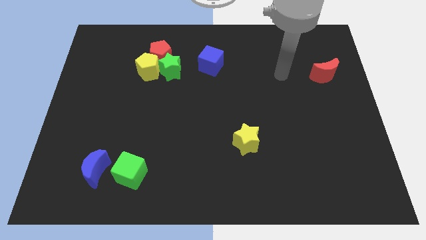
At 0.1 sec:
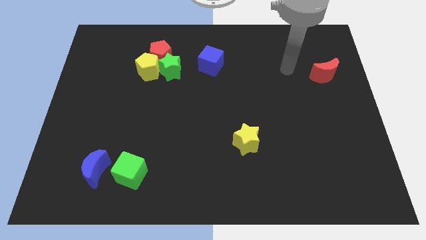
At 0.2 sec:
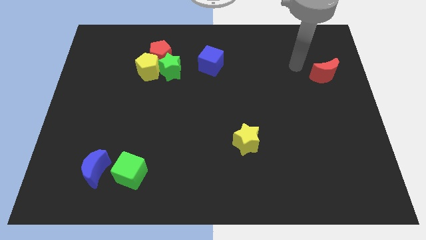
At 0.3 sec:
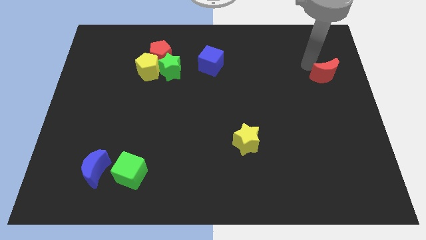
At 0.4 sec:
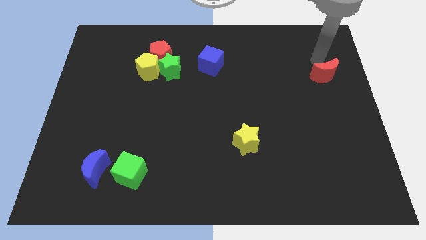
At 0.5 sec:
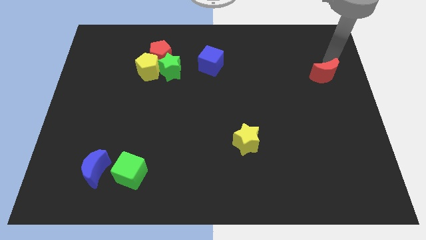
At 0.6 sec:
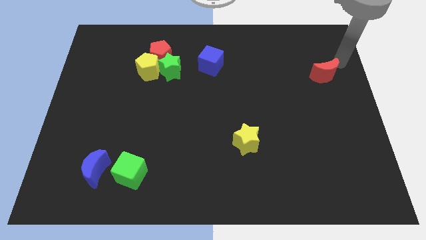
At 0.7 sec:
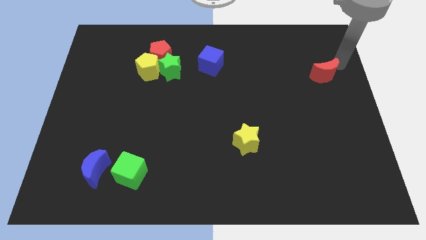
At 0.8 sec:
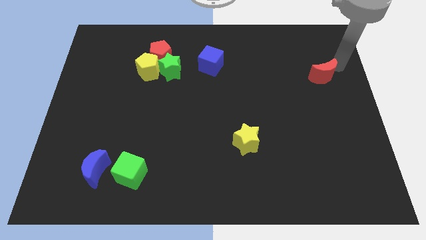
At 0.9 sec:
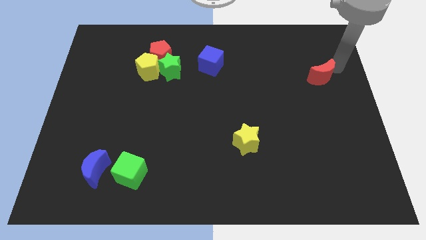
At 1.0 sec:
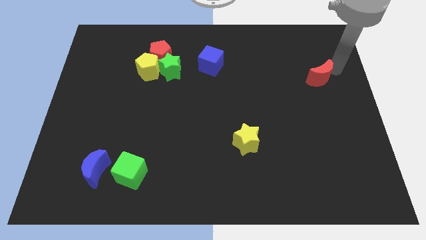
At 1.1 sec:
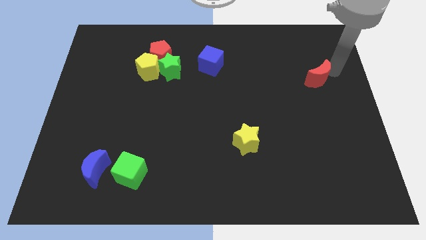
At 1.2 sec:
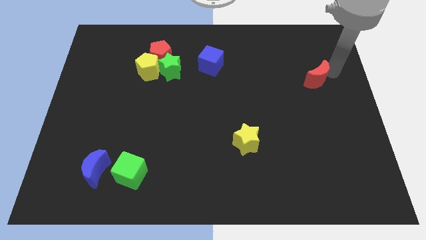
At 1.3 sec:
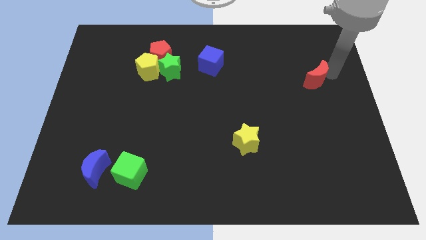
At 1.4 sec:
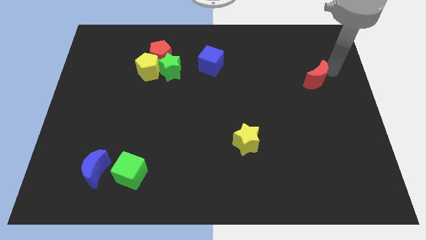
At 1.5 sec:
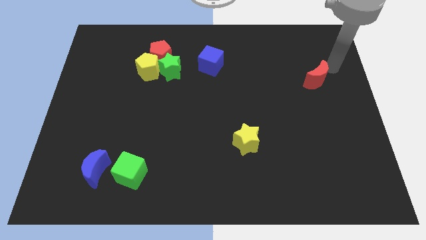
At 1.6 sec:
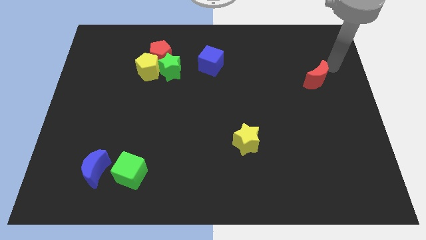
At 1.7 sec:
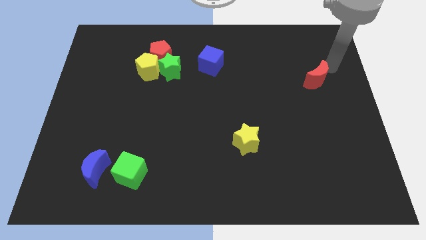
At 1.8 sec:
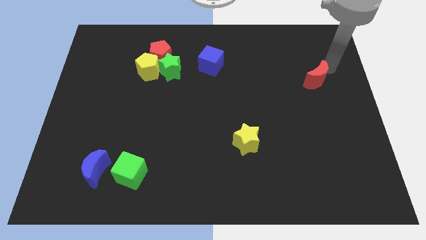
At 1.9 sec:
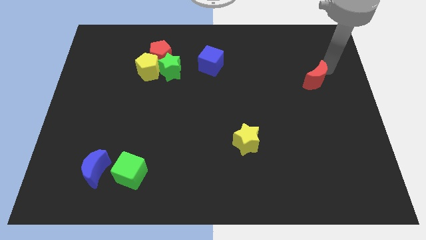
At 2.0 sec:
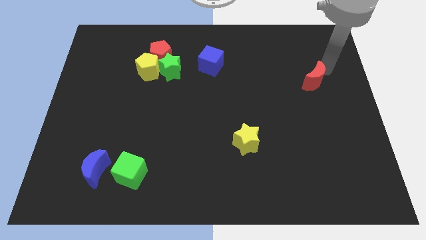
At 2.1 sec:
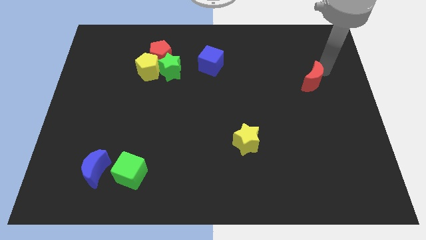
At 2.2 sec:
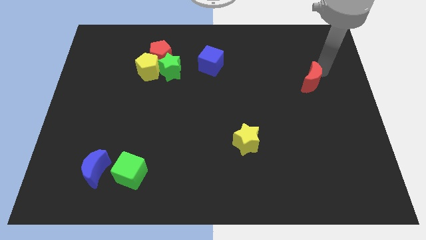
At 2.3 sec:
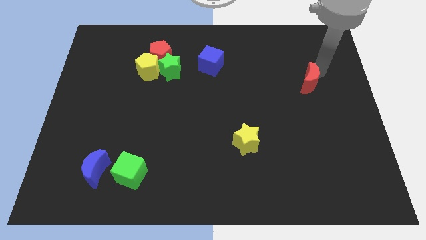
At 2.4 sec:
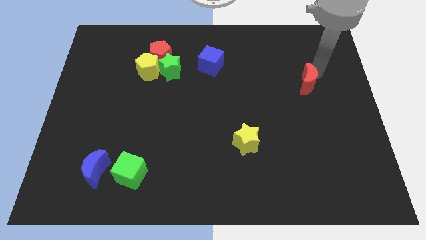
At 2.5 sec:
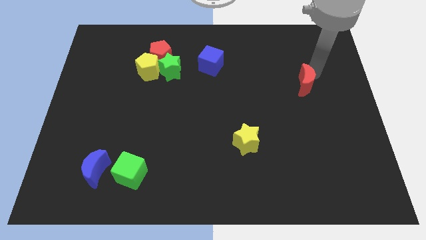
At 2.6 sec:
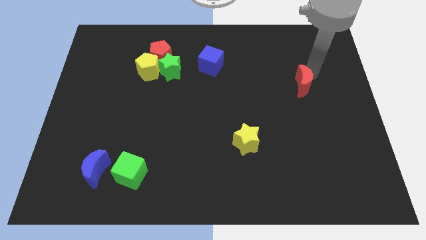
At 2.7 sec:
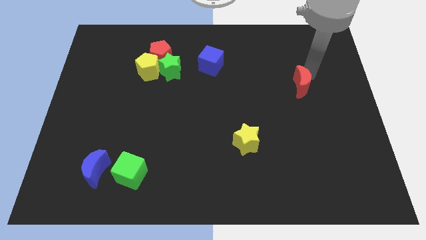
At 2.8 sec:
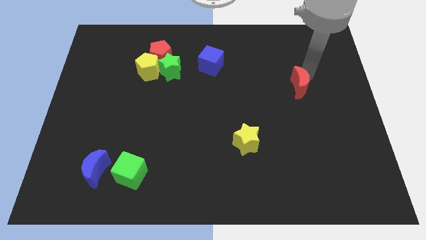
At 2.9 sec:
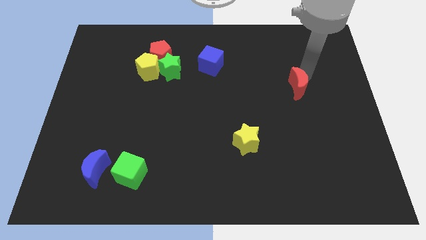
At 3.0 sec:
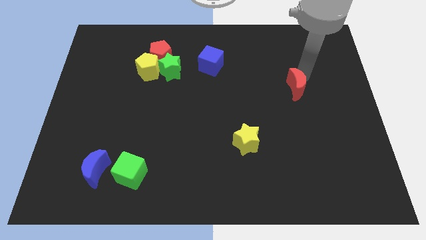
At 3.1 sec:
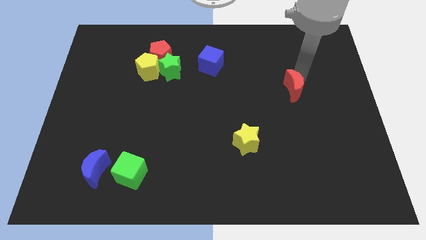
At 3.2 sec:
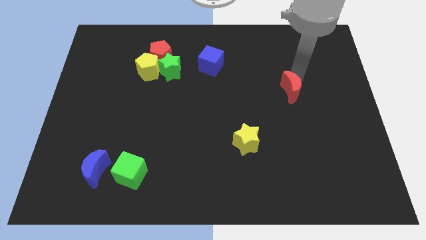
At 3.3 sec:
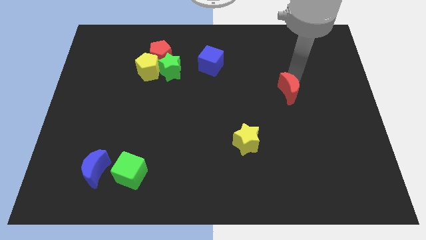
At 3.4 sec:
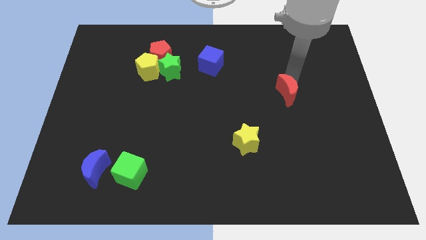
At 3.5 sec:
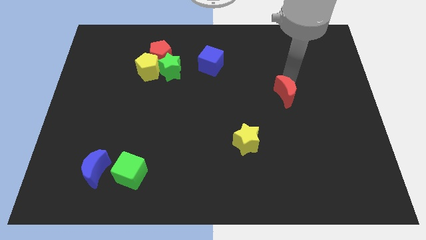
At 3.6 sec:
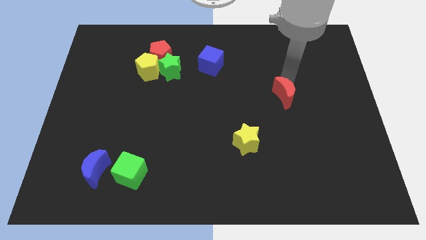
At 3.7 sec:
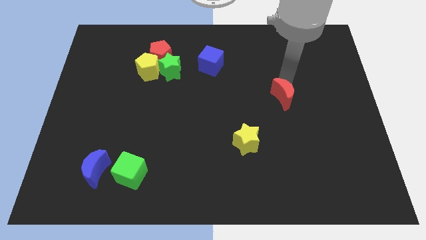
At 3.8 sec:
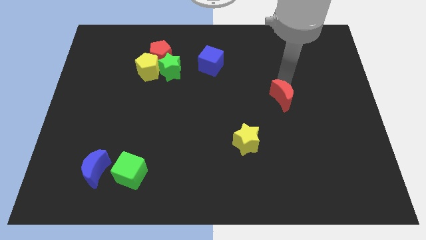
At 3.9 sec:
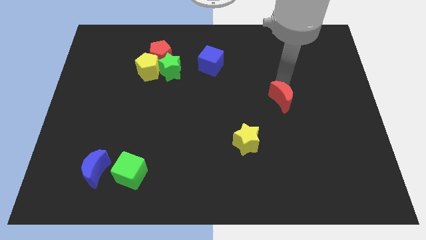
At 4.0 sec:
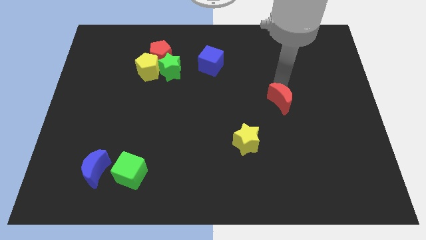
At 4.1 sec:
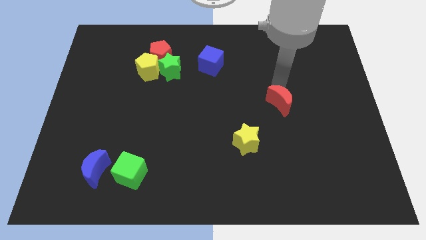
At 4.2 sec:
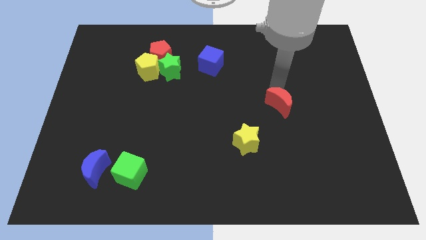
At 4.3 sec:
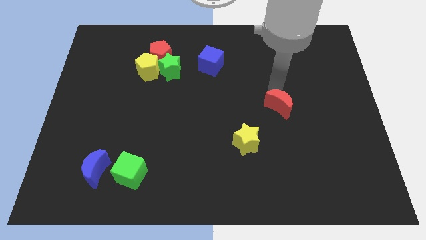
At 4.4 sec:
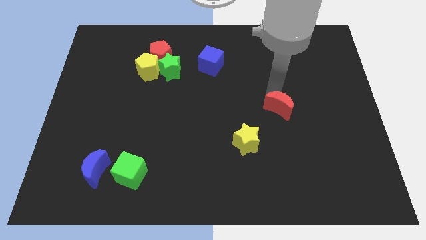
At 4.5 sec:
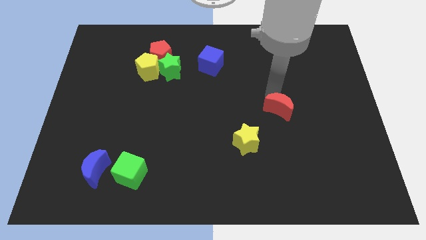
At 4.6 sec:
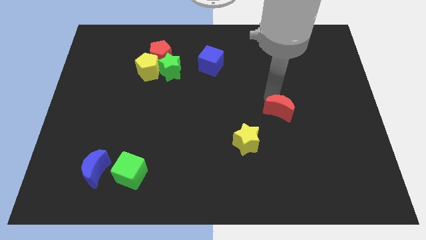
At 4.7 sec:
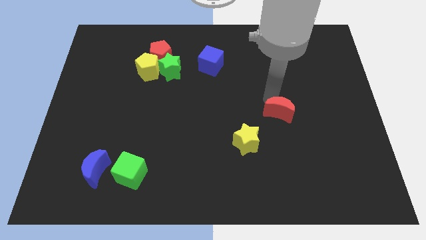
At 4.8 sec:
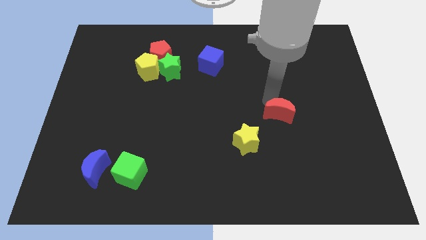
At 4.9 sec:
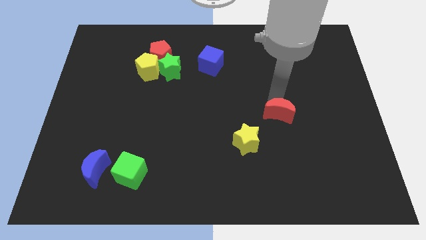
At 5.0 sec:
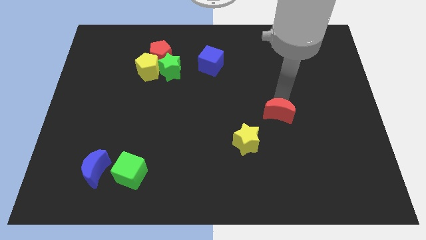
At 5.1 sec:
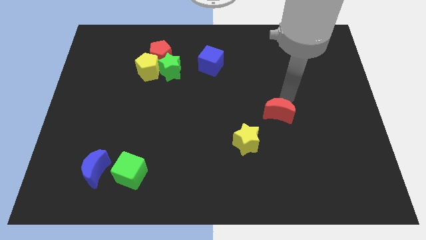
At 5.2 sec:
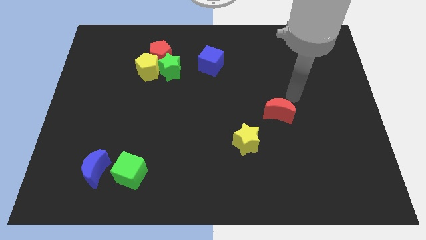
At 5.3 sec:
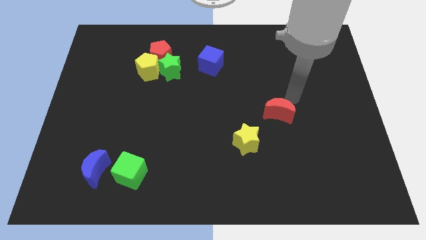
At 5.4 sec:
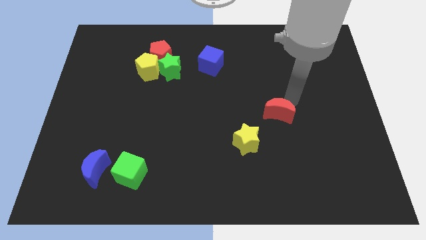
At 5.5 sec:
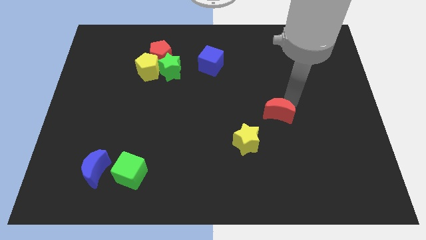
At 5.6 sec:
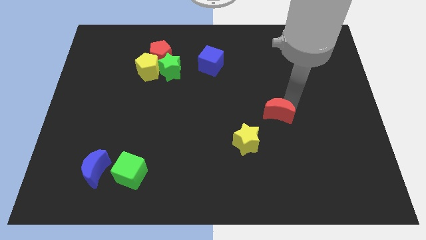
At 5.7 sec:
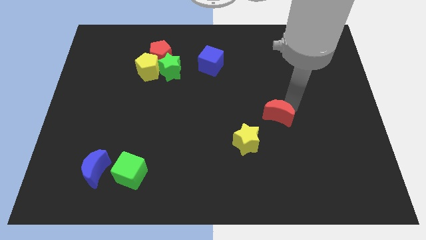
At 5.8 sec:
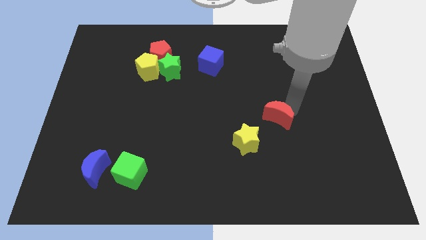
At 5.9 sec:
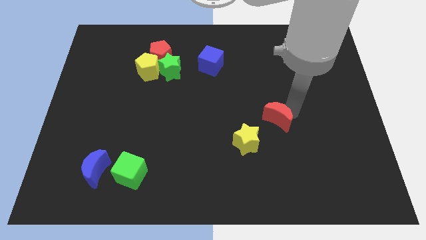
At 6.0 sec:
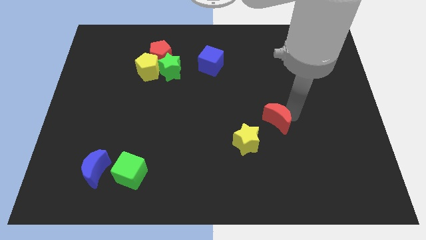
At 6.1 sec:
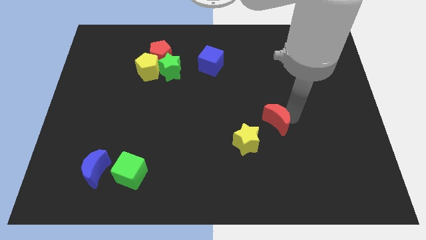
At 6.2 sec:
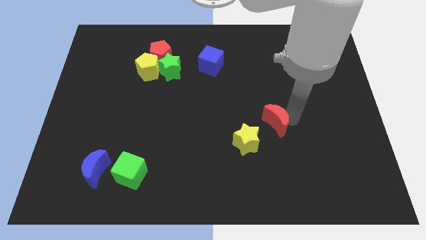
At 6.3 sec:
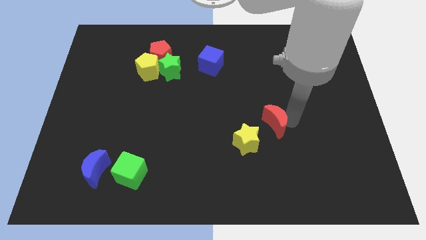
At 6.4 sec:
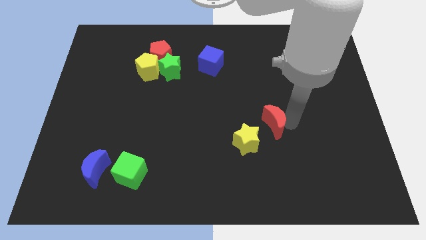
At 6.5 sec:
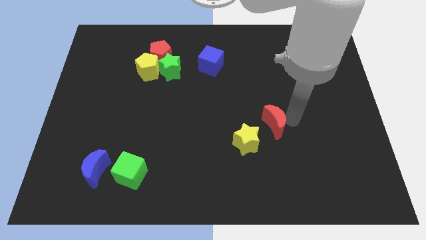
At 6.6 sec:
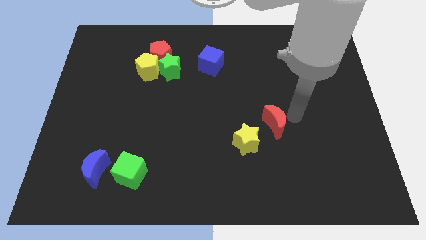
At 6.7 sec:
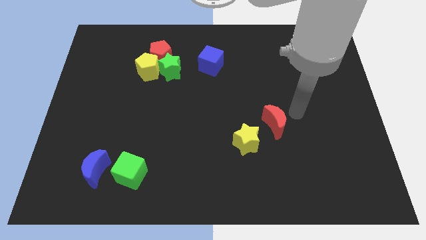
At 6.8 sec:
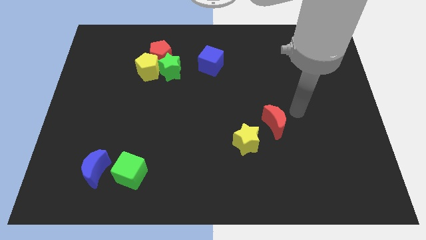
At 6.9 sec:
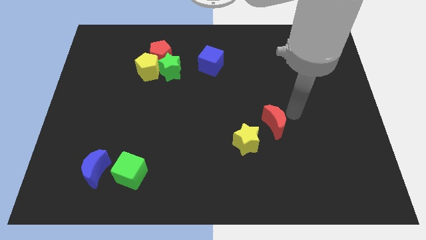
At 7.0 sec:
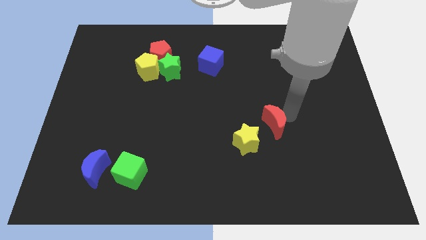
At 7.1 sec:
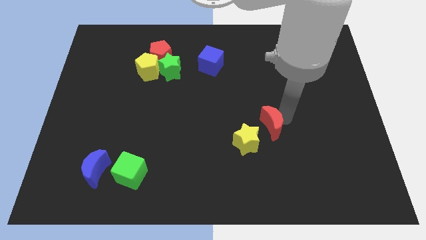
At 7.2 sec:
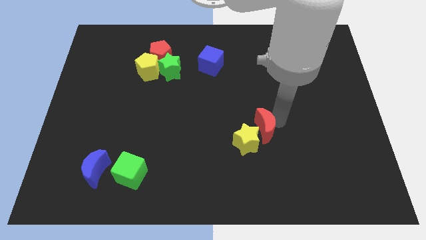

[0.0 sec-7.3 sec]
push the red moon next to the yellow star
